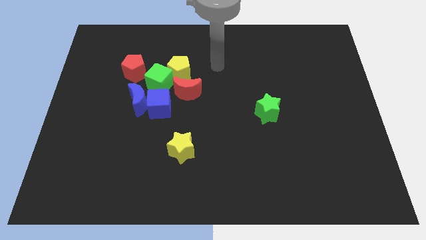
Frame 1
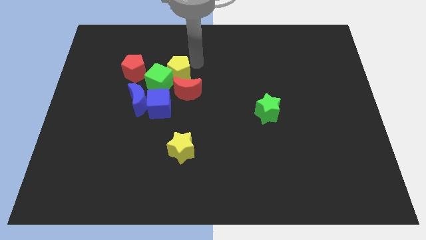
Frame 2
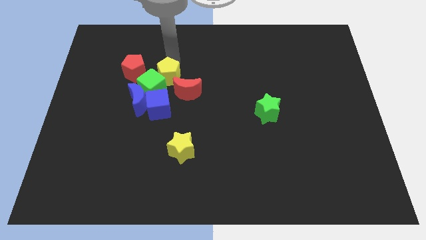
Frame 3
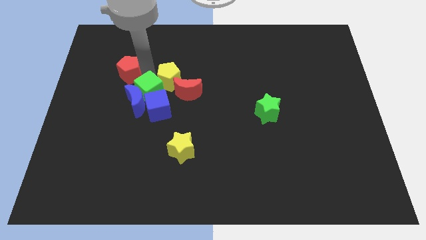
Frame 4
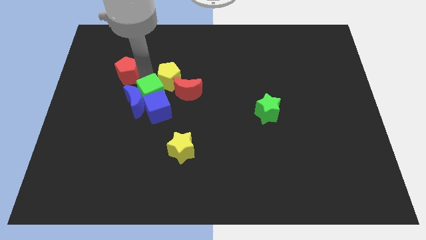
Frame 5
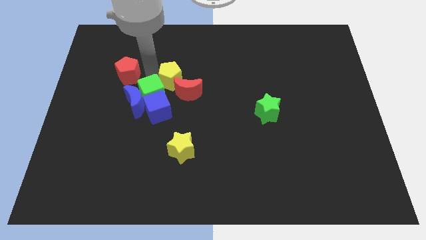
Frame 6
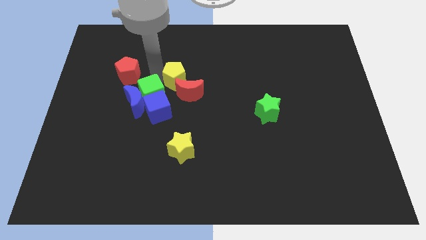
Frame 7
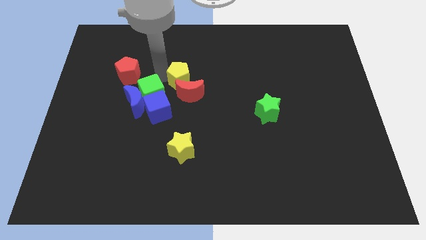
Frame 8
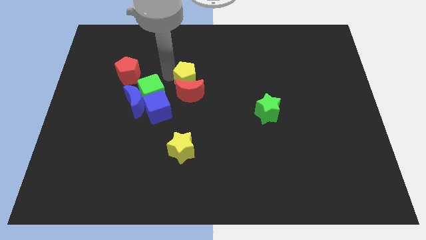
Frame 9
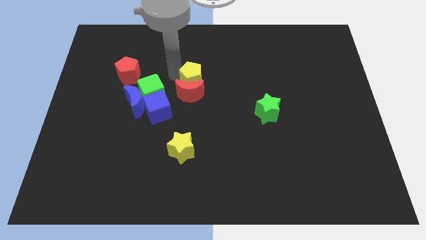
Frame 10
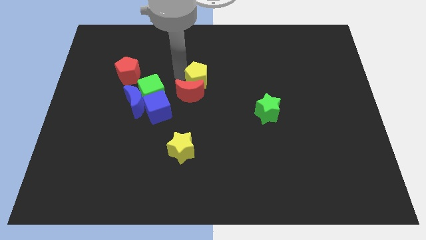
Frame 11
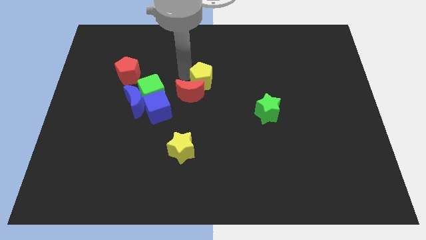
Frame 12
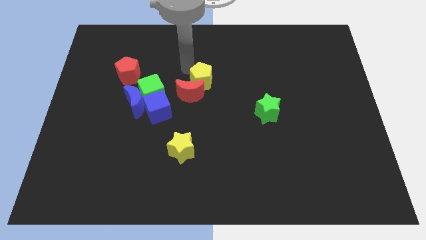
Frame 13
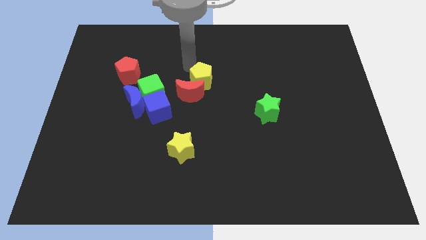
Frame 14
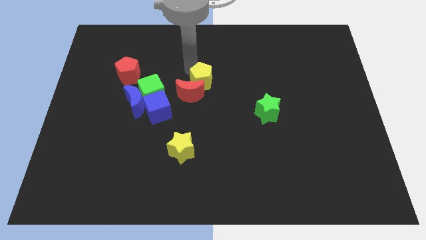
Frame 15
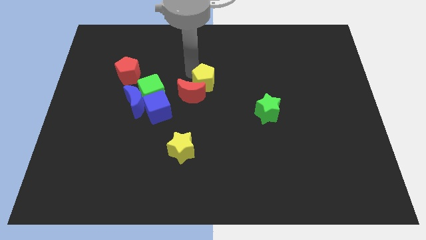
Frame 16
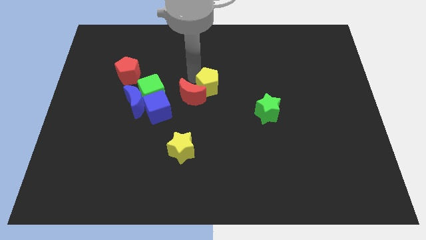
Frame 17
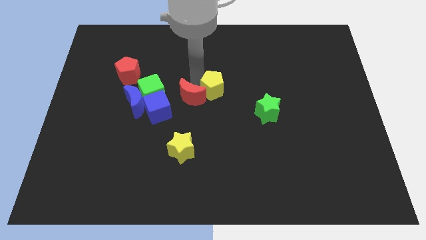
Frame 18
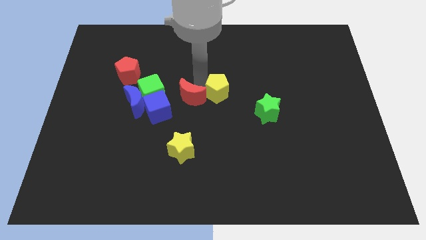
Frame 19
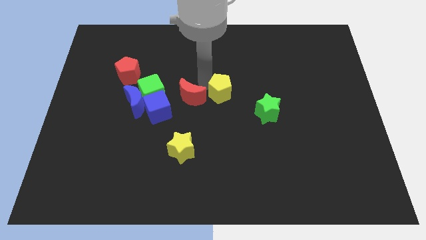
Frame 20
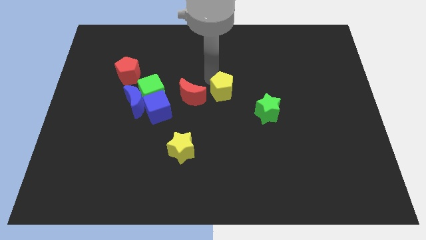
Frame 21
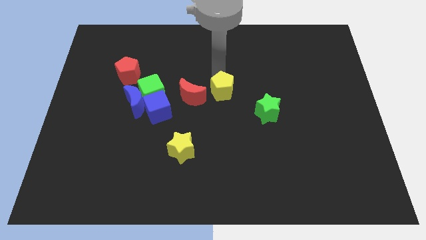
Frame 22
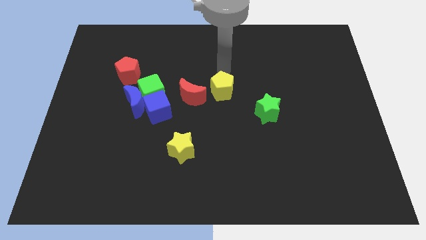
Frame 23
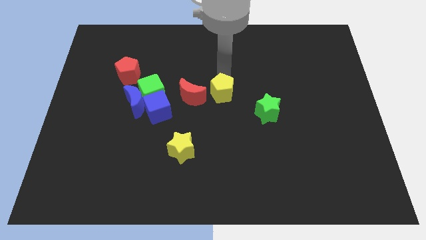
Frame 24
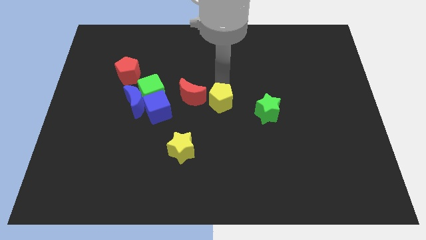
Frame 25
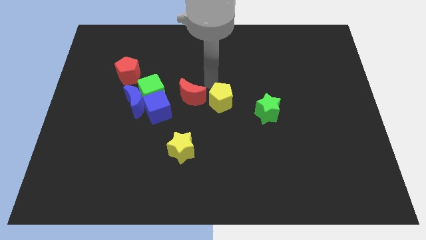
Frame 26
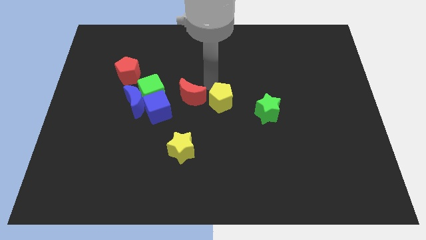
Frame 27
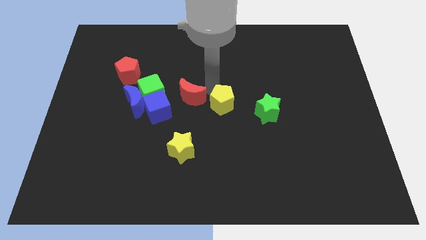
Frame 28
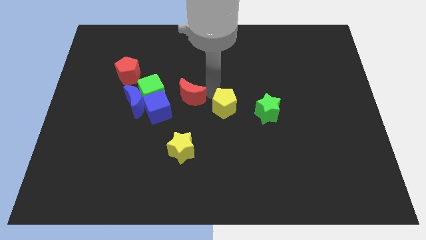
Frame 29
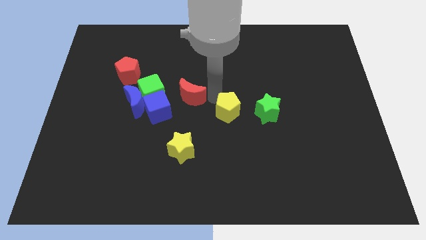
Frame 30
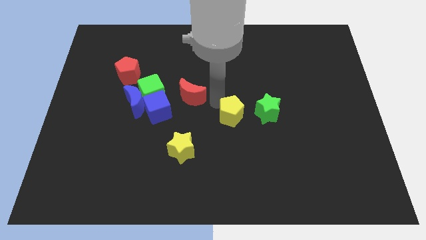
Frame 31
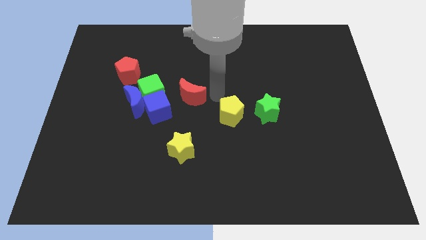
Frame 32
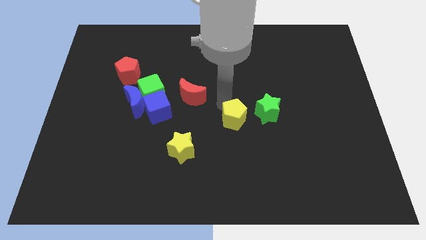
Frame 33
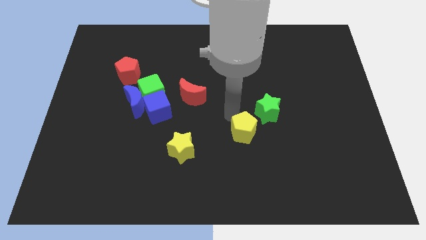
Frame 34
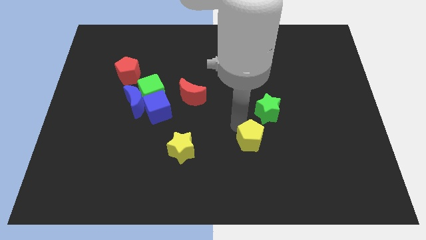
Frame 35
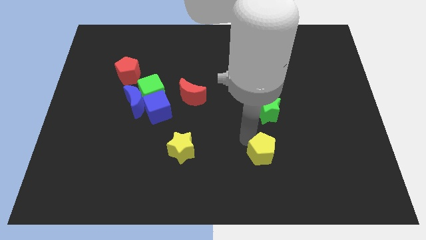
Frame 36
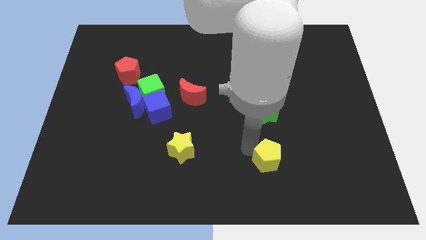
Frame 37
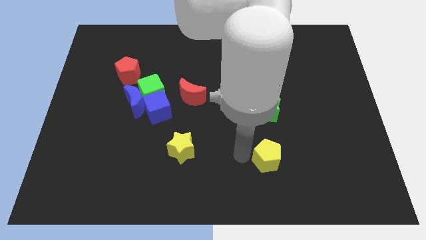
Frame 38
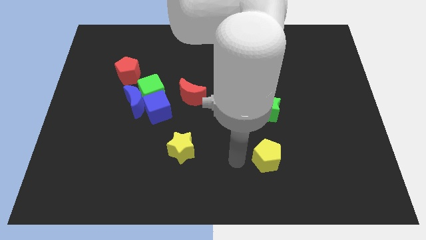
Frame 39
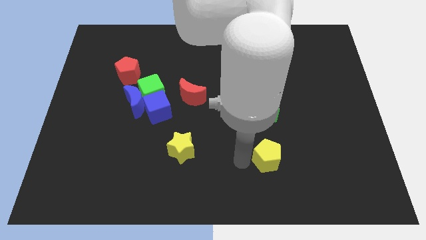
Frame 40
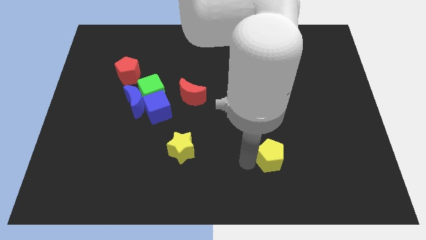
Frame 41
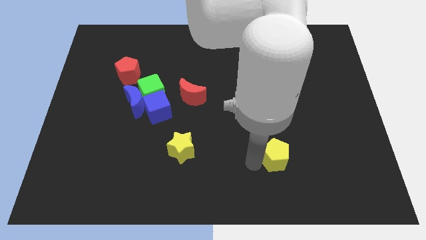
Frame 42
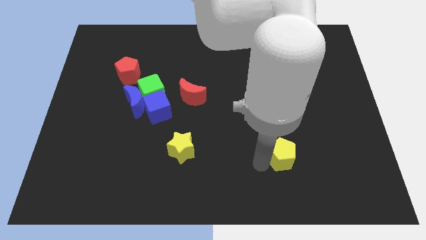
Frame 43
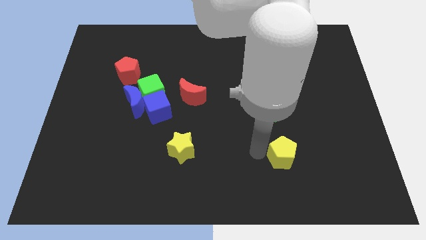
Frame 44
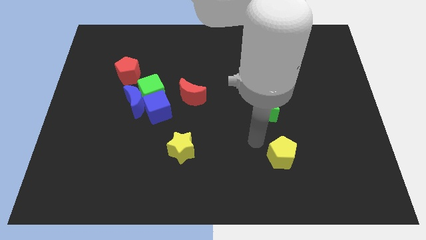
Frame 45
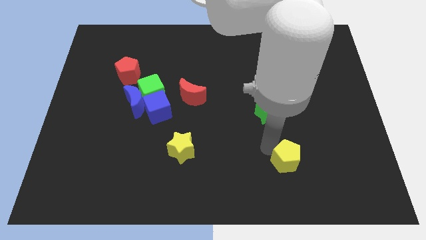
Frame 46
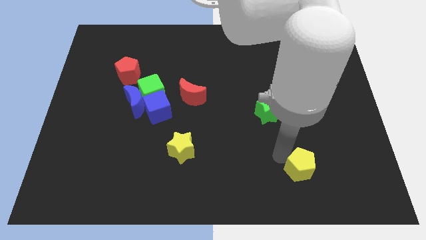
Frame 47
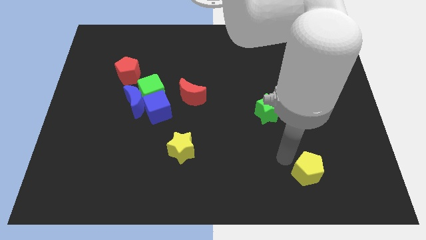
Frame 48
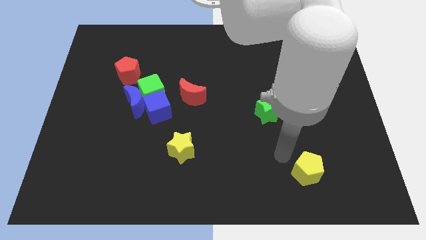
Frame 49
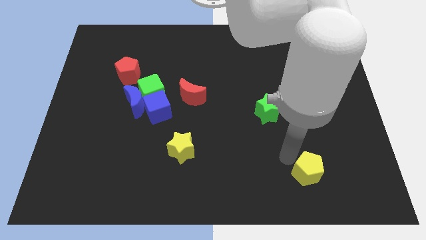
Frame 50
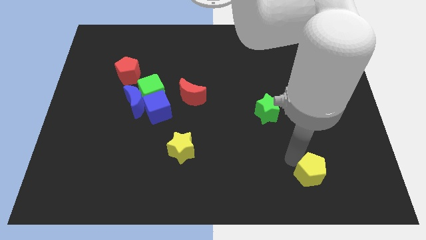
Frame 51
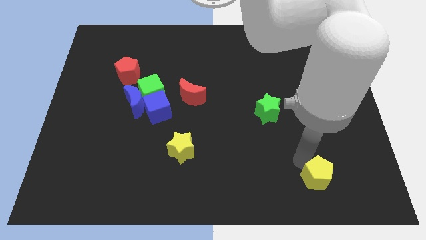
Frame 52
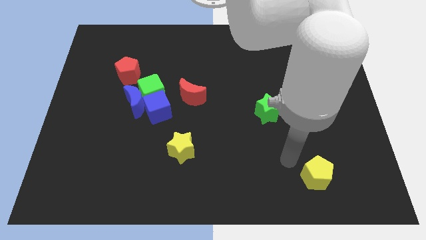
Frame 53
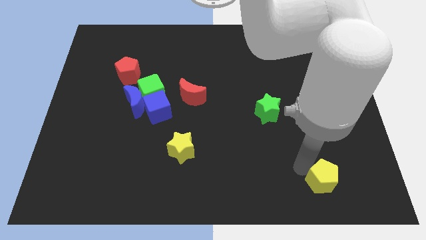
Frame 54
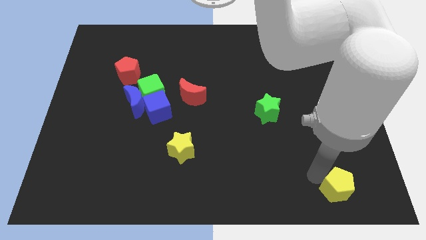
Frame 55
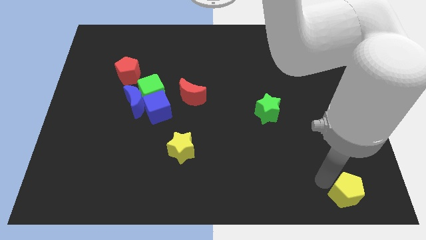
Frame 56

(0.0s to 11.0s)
push the yellow pentagon to the bottom right corner

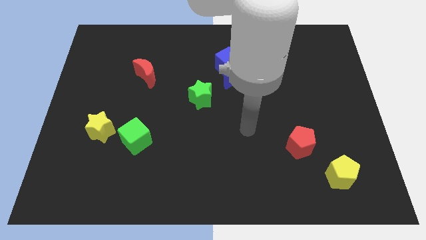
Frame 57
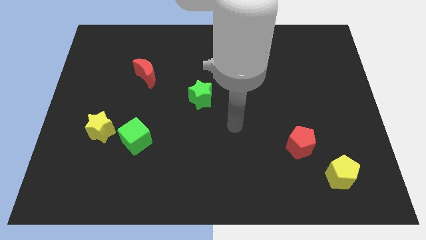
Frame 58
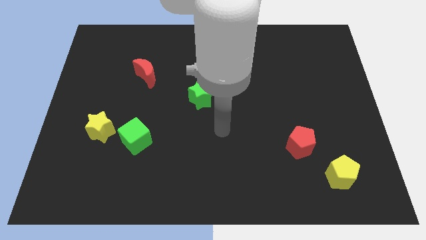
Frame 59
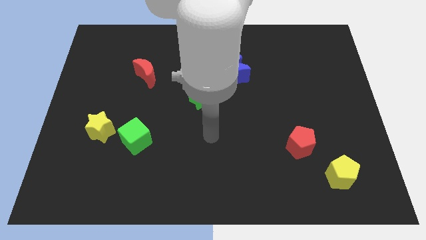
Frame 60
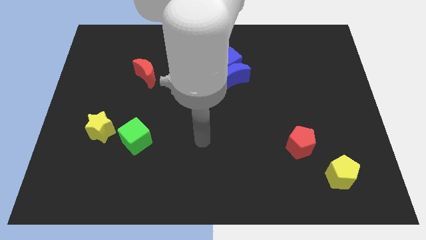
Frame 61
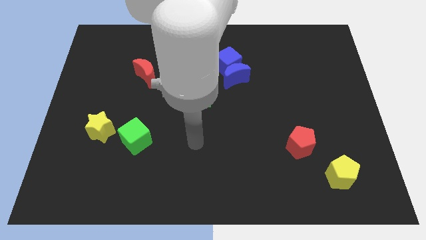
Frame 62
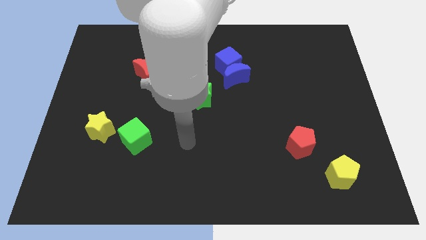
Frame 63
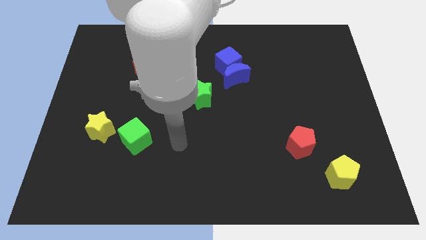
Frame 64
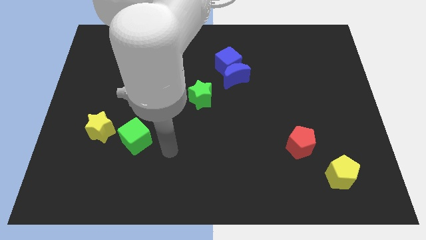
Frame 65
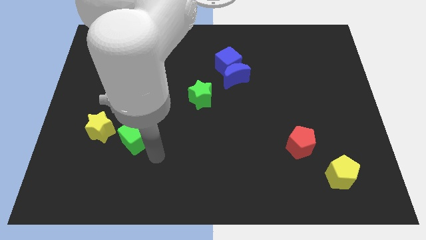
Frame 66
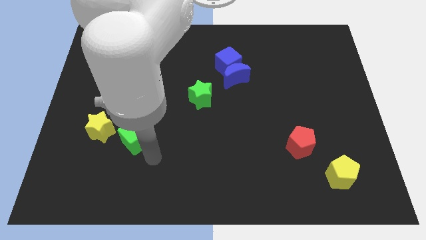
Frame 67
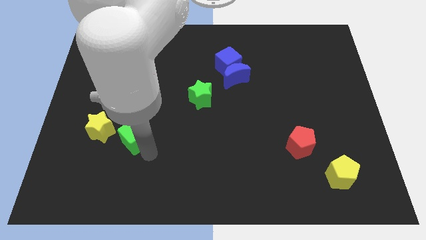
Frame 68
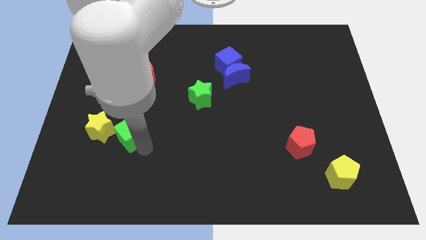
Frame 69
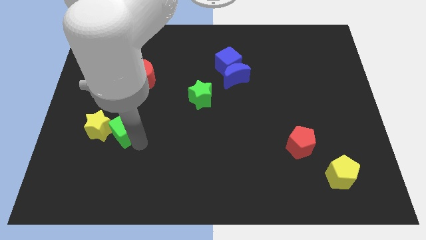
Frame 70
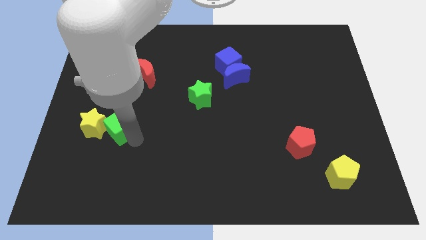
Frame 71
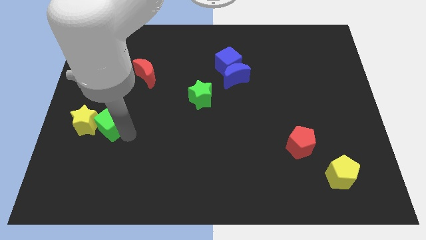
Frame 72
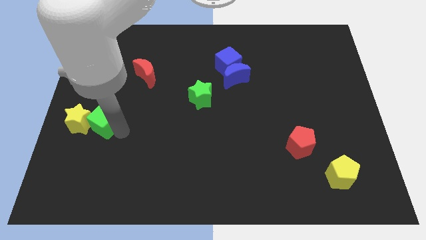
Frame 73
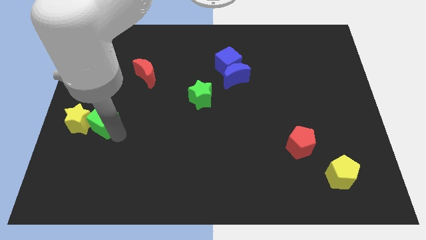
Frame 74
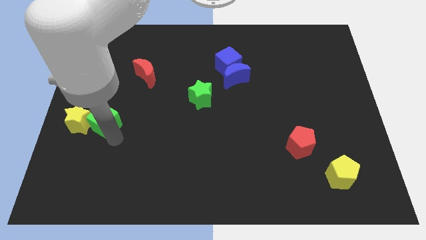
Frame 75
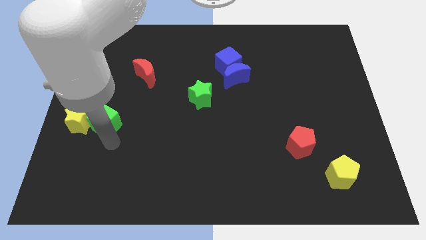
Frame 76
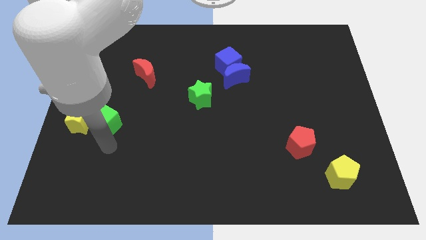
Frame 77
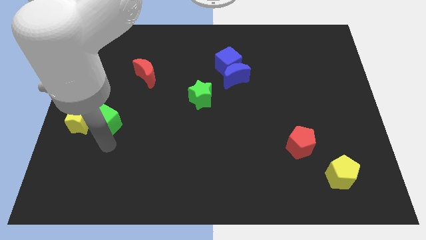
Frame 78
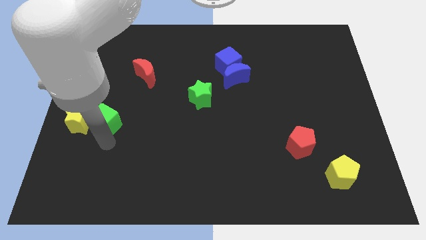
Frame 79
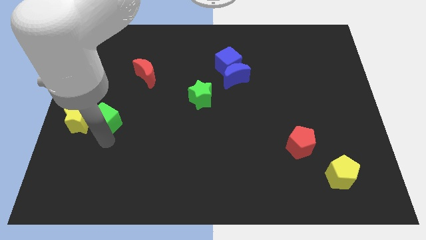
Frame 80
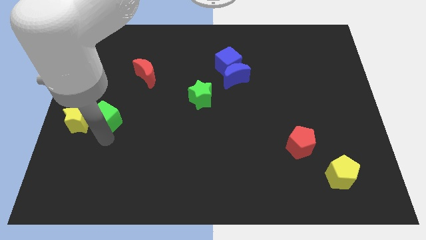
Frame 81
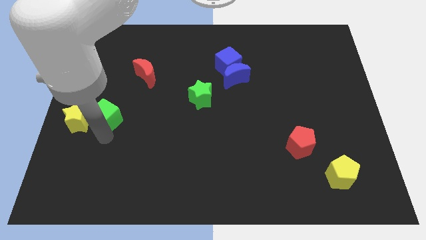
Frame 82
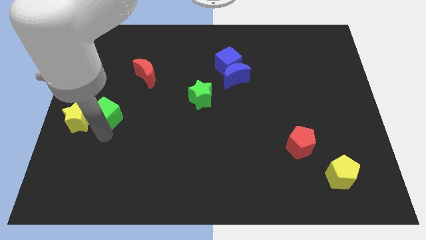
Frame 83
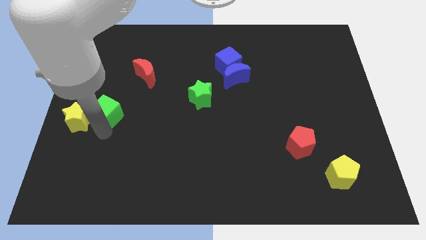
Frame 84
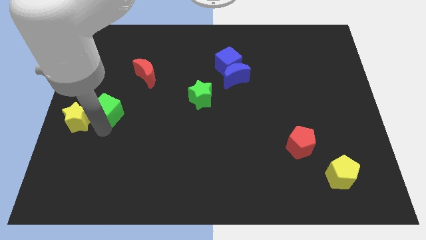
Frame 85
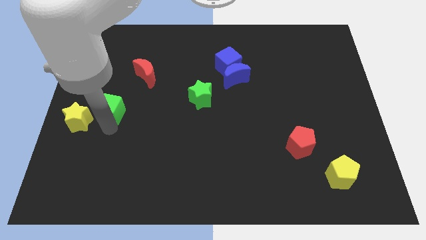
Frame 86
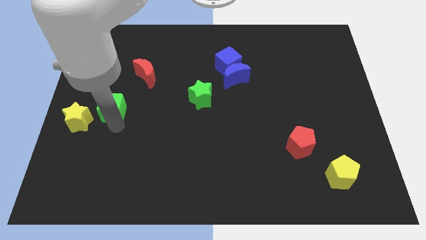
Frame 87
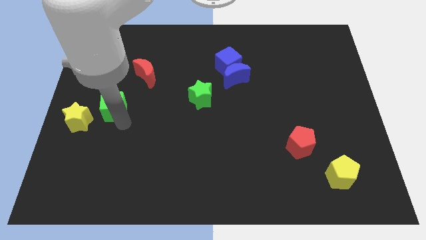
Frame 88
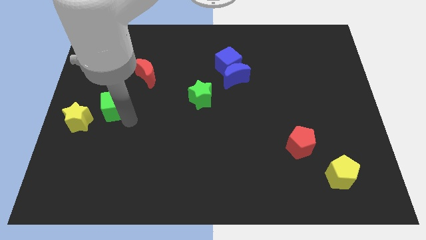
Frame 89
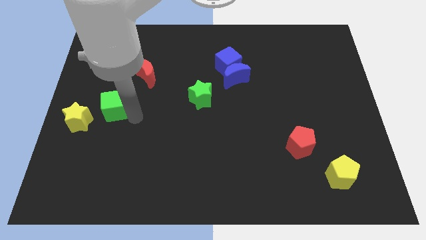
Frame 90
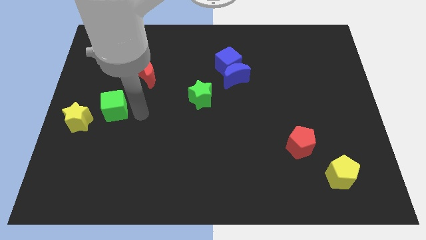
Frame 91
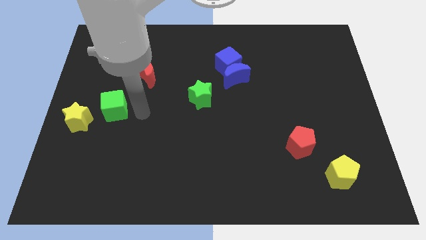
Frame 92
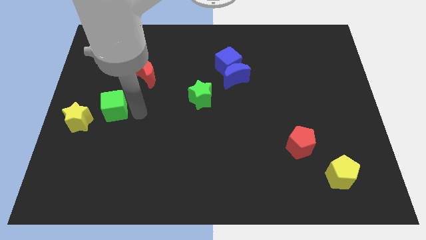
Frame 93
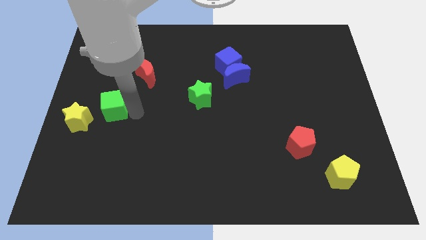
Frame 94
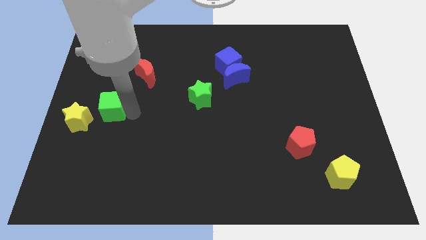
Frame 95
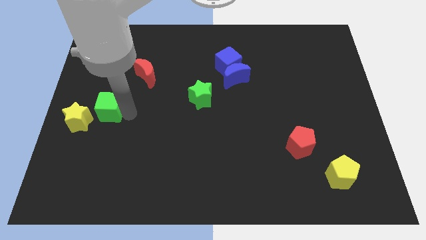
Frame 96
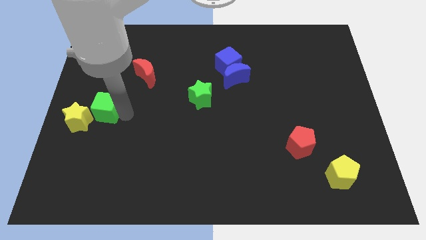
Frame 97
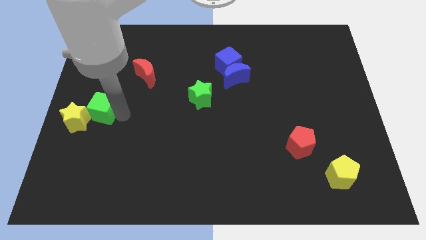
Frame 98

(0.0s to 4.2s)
put the green cube to the left side of the board
